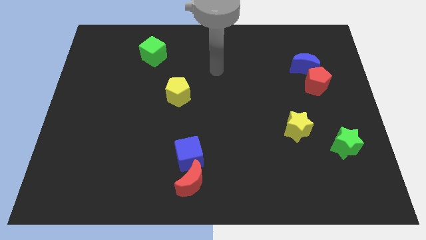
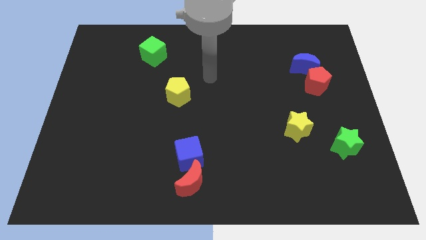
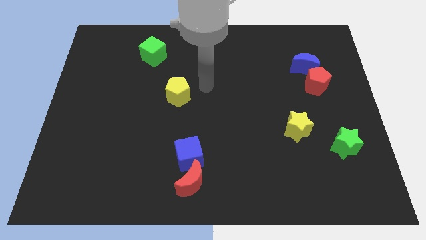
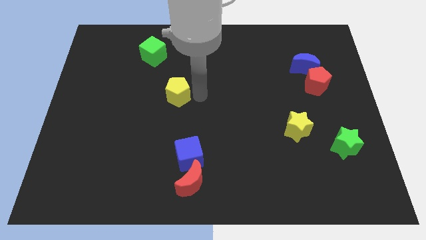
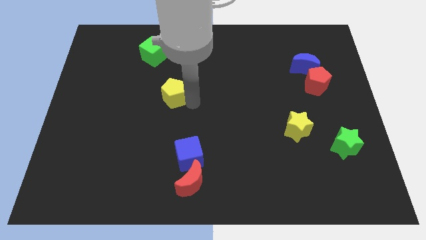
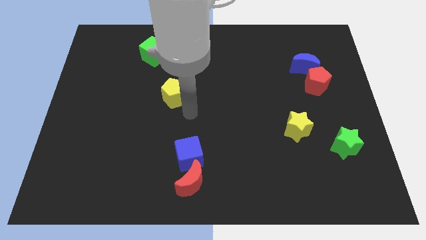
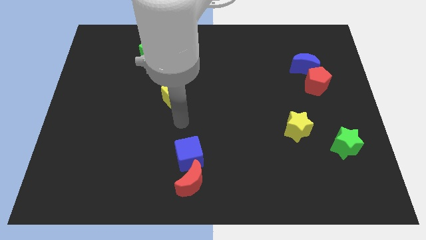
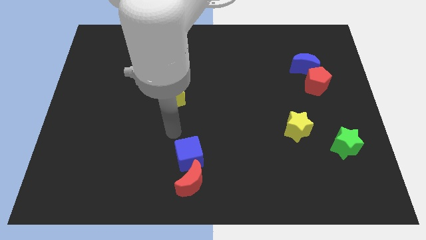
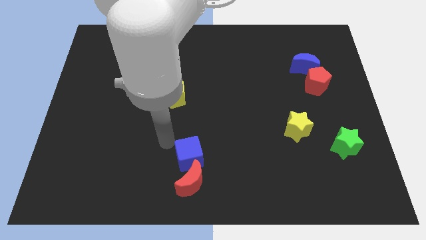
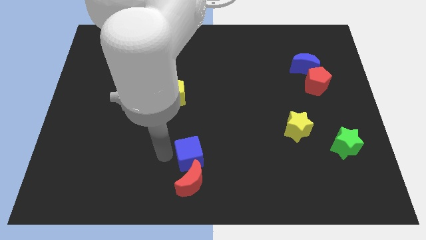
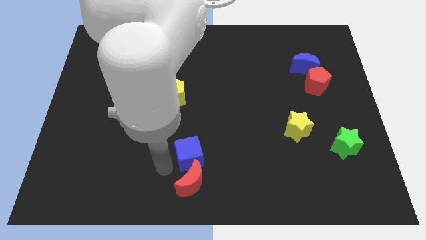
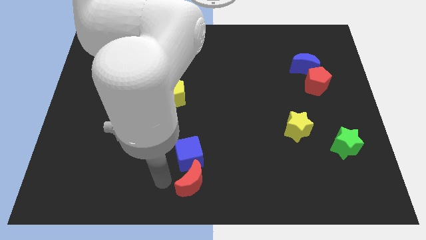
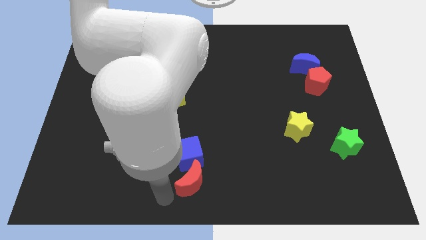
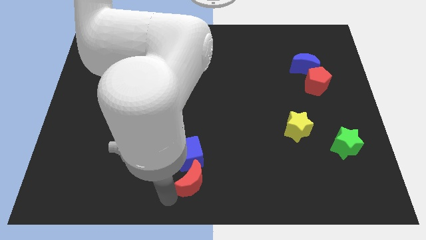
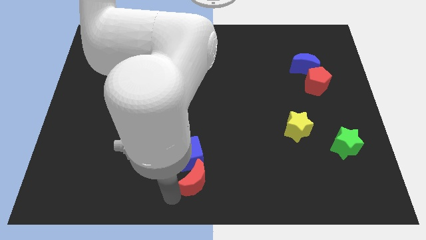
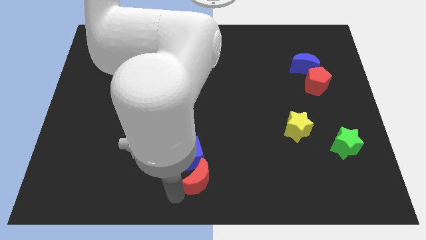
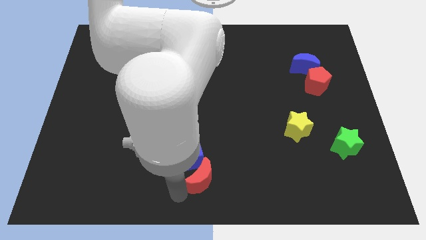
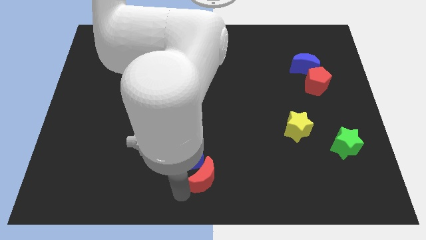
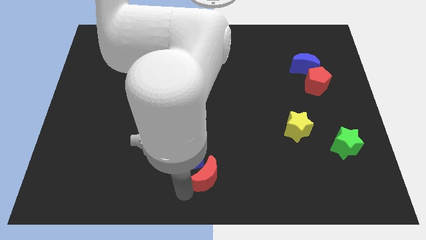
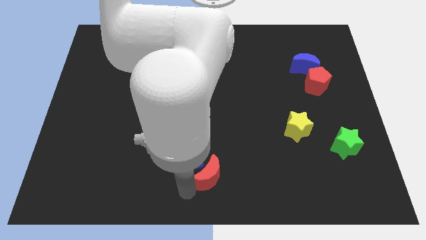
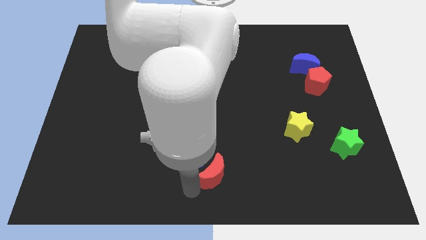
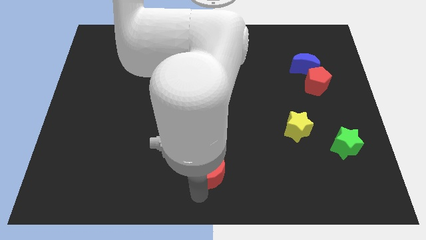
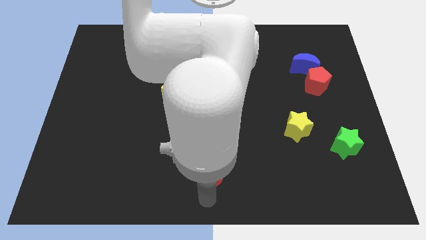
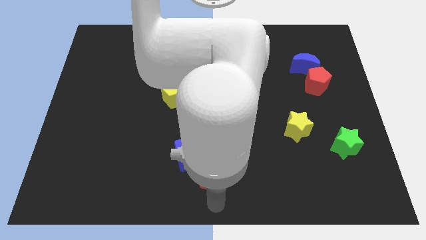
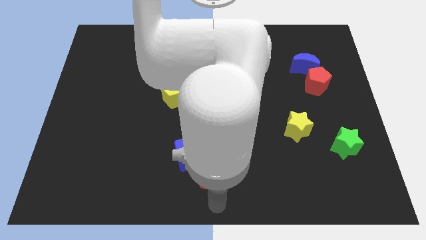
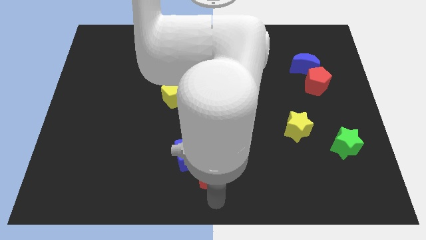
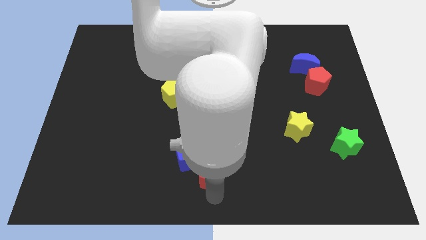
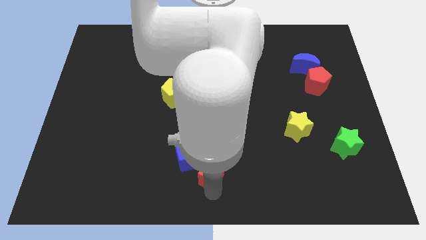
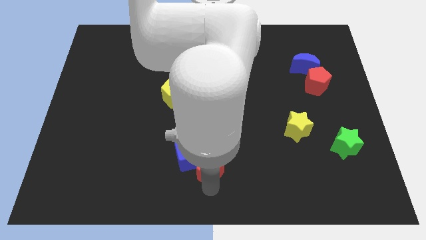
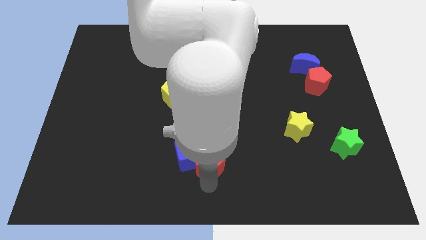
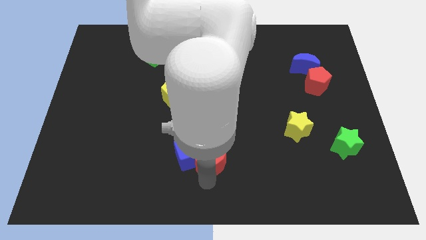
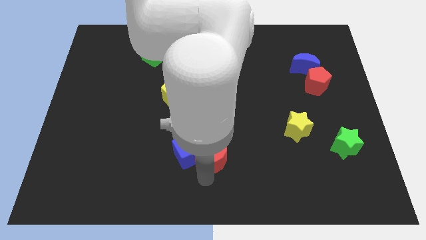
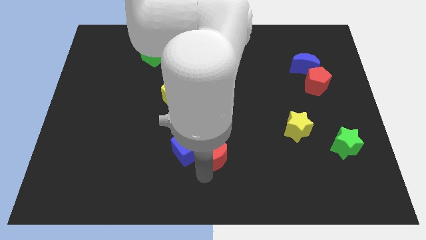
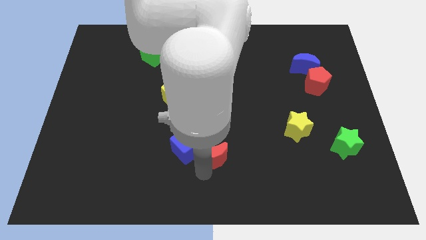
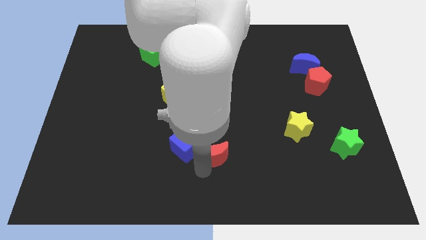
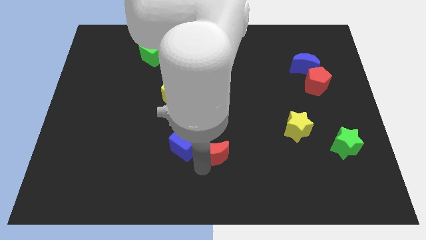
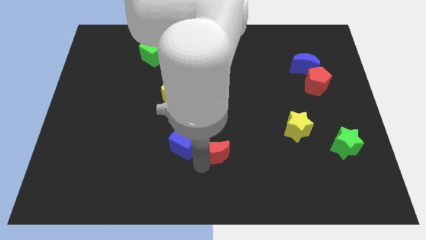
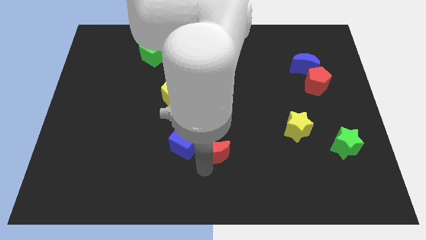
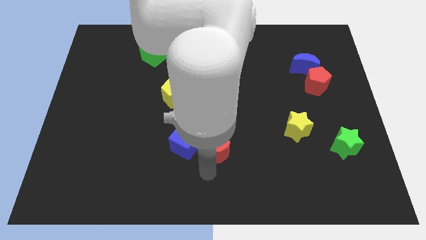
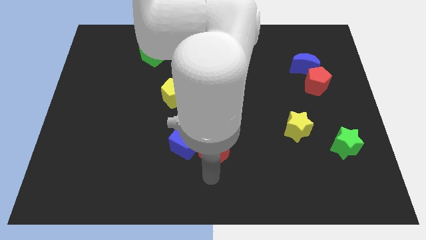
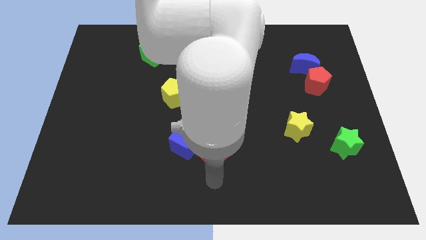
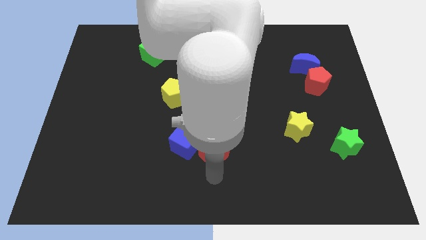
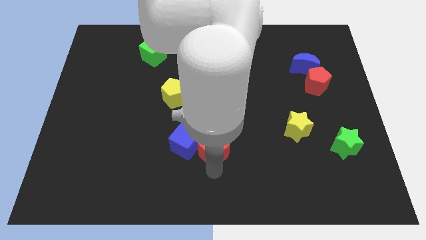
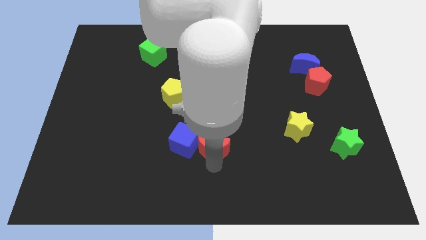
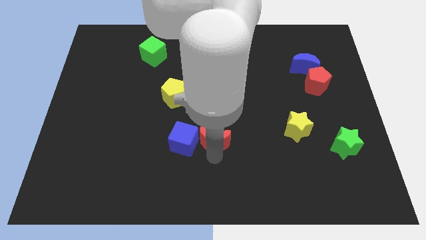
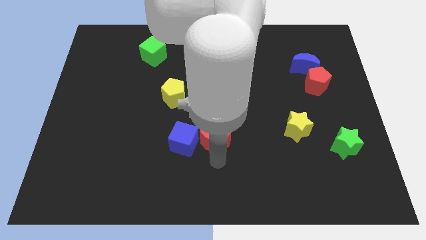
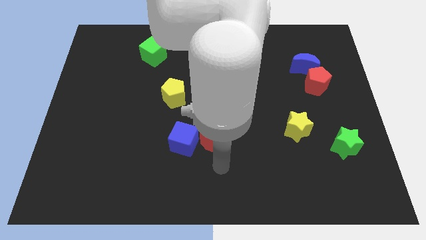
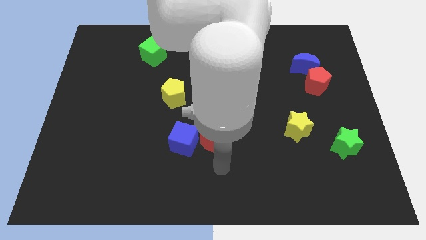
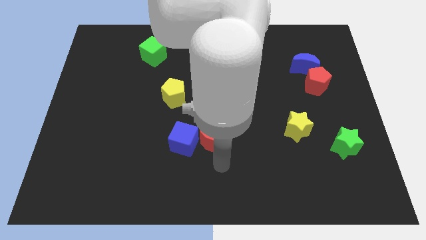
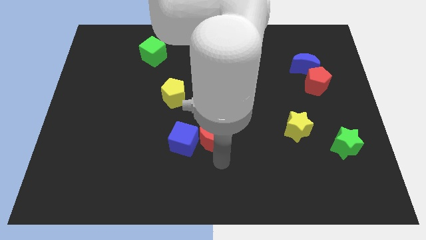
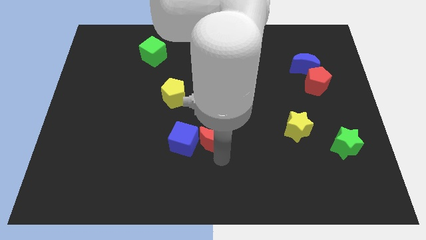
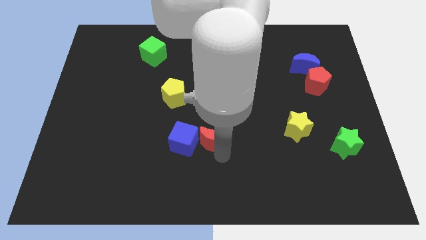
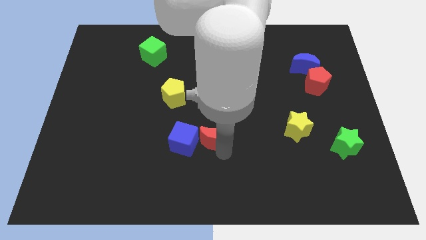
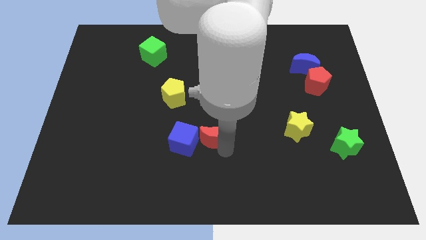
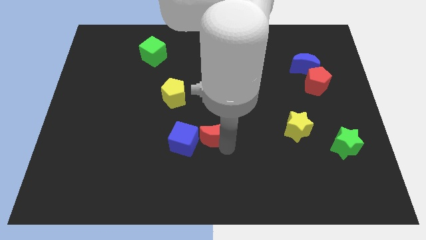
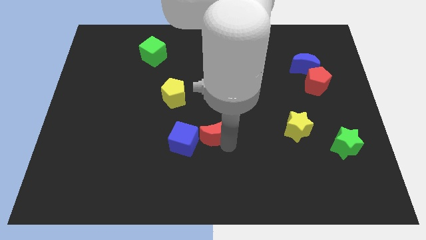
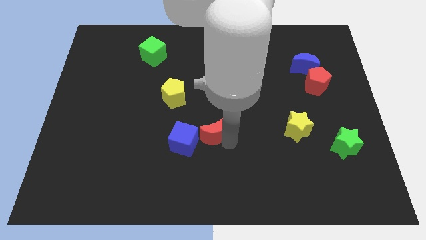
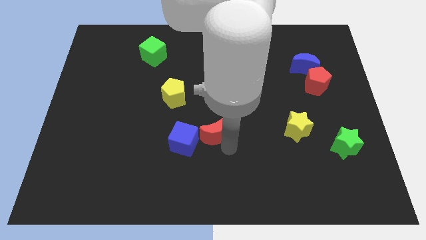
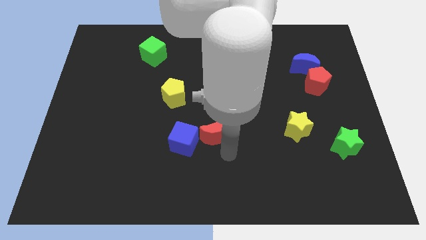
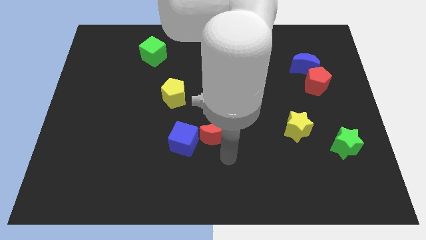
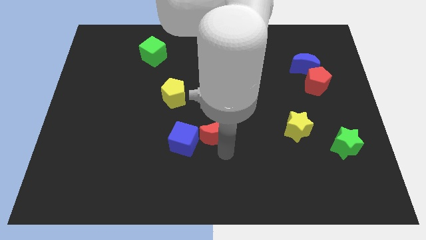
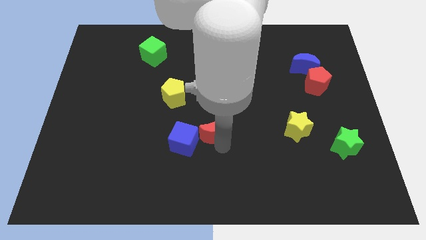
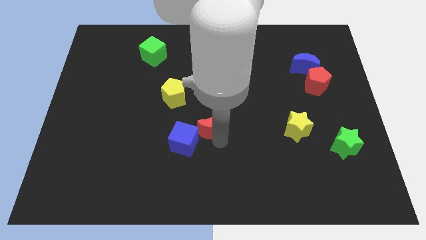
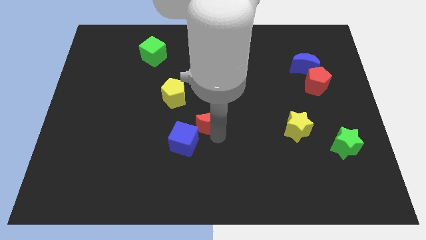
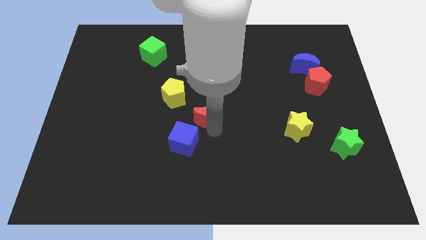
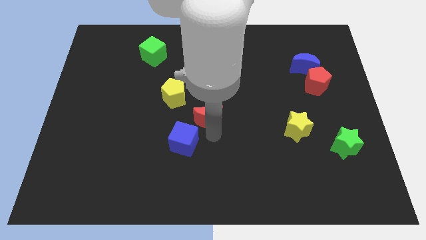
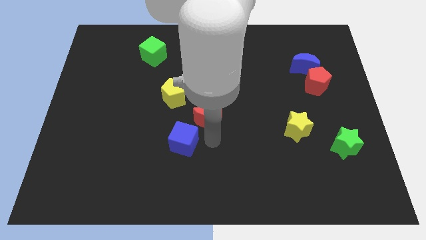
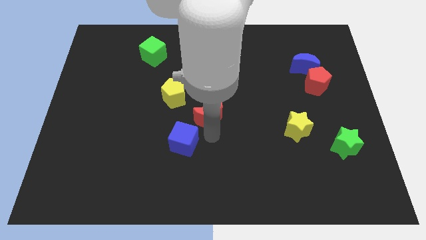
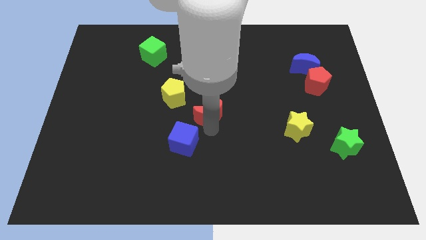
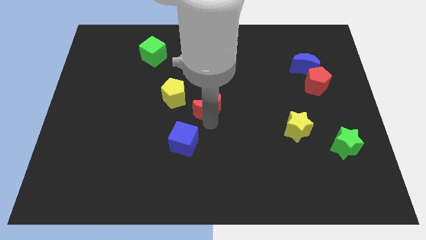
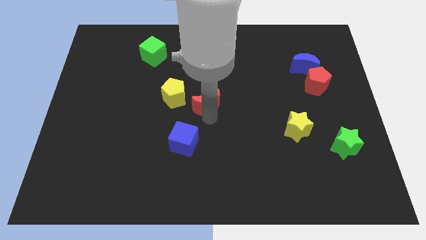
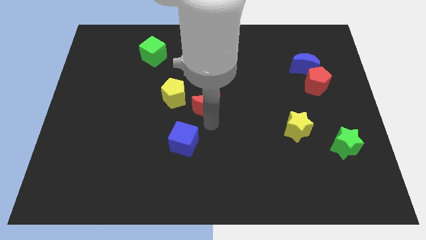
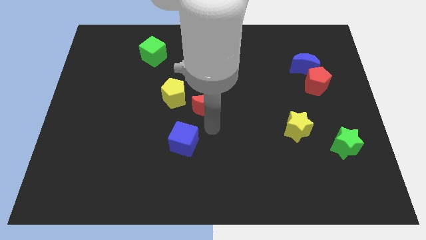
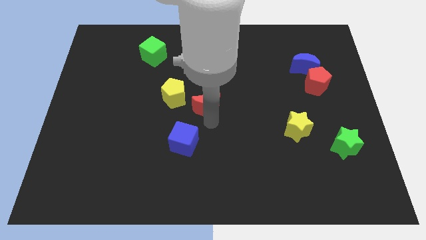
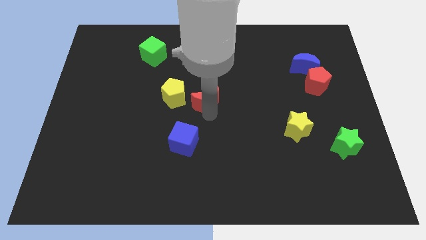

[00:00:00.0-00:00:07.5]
move the red moon upwards
